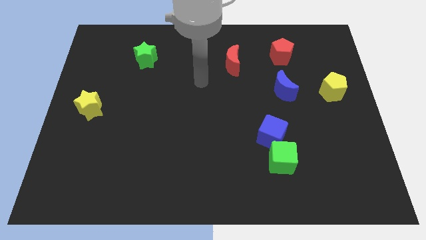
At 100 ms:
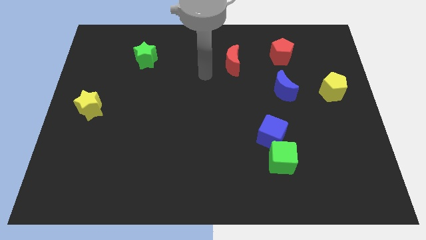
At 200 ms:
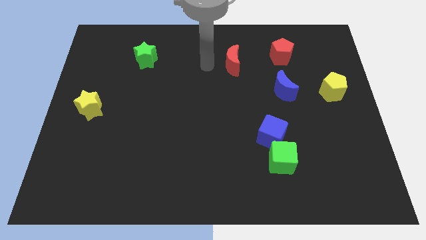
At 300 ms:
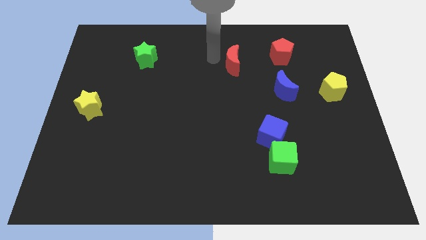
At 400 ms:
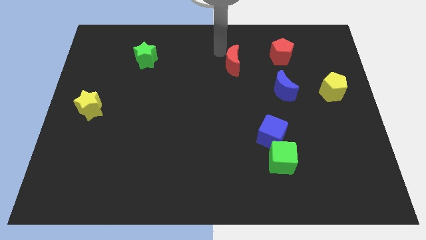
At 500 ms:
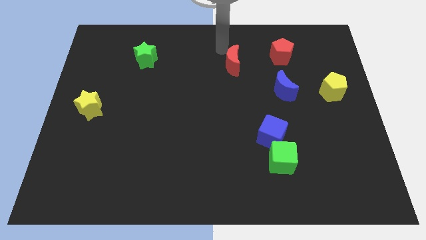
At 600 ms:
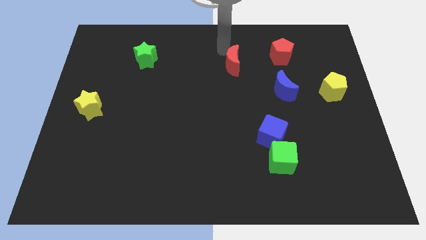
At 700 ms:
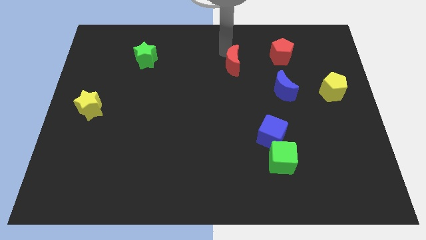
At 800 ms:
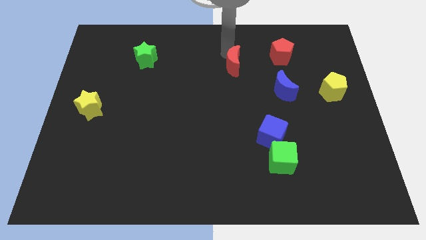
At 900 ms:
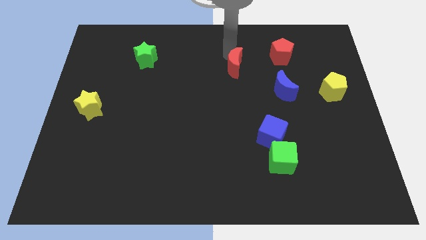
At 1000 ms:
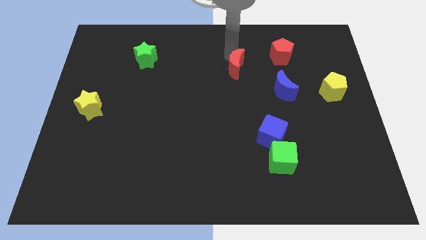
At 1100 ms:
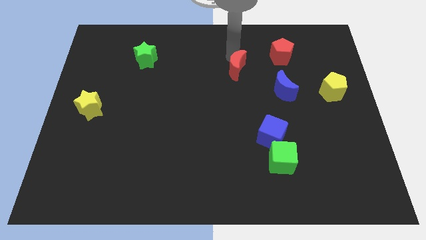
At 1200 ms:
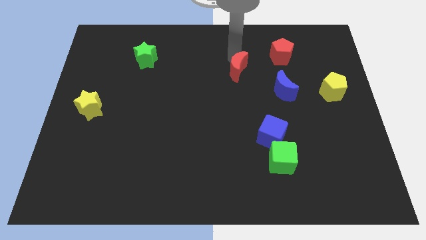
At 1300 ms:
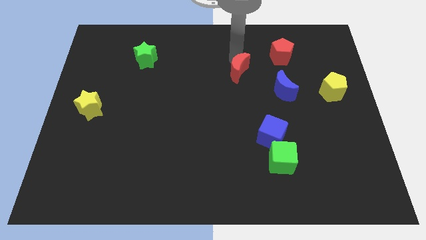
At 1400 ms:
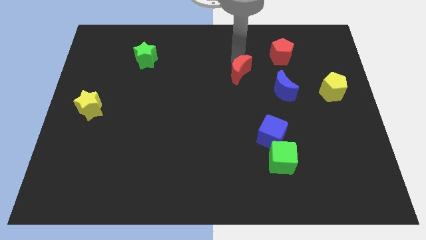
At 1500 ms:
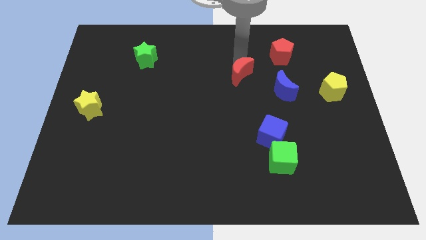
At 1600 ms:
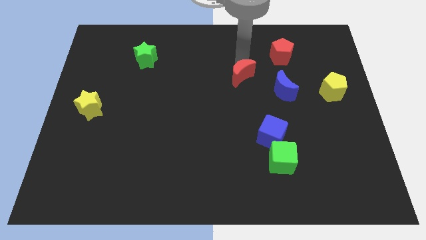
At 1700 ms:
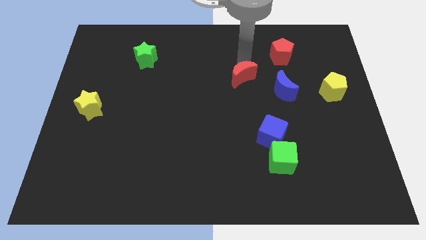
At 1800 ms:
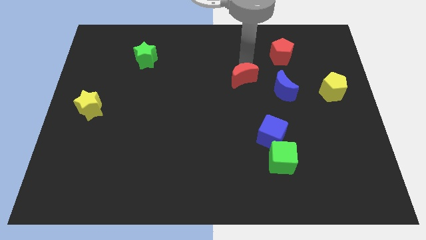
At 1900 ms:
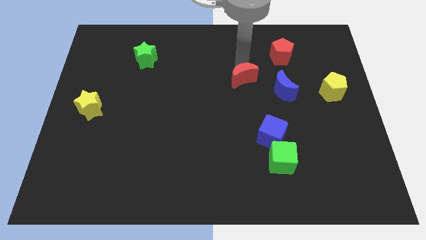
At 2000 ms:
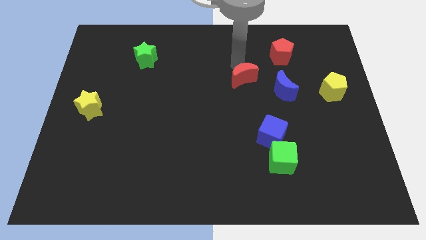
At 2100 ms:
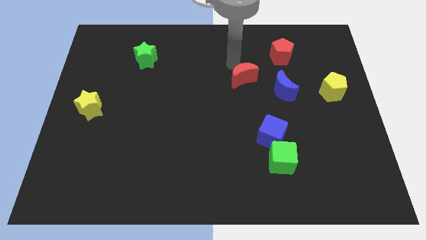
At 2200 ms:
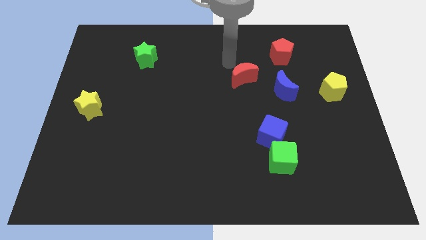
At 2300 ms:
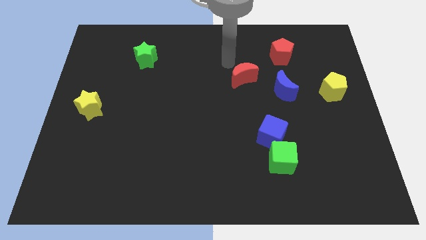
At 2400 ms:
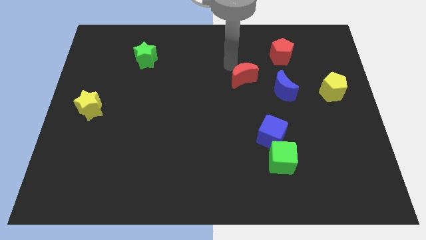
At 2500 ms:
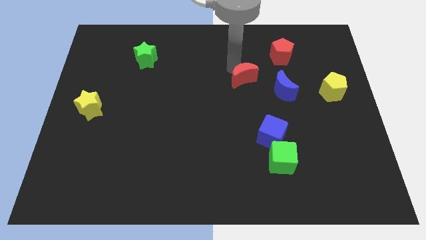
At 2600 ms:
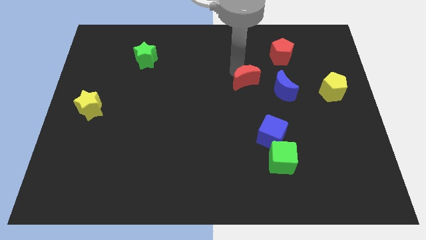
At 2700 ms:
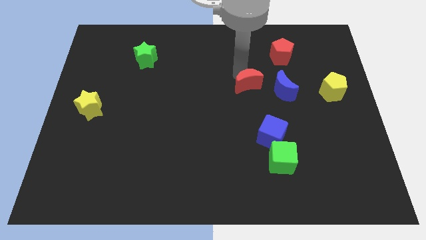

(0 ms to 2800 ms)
slightly slide the red moon diagonally downwards and to the right

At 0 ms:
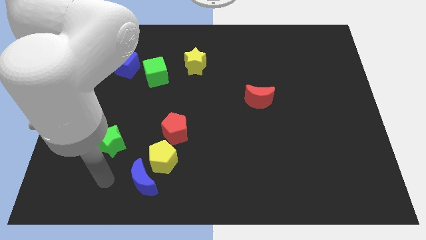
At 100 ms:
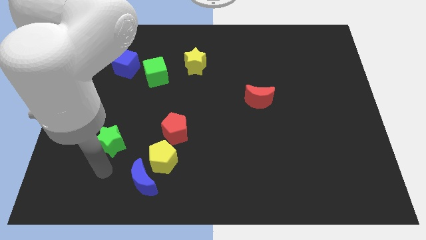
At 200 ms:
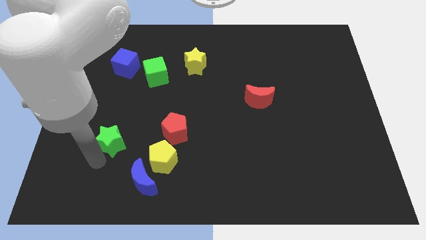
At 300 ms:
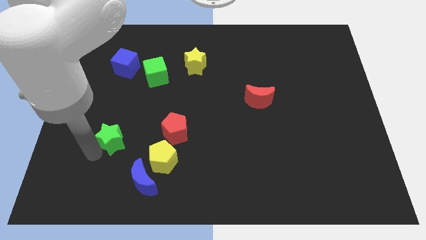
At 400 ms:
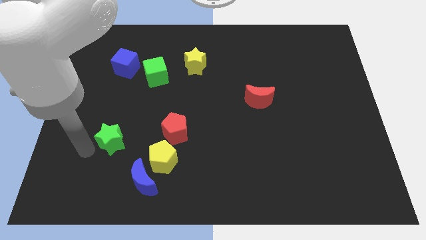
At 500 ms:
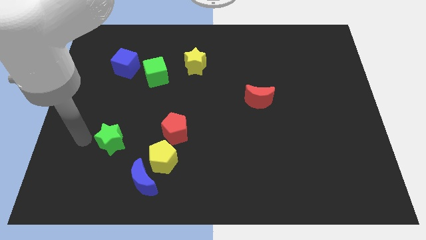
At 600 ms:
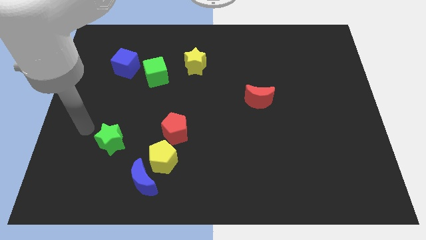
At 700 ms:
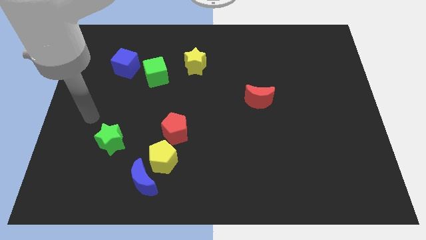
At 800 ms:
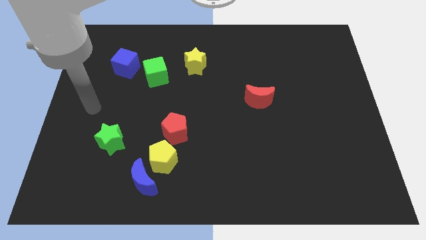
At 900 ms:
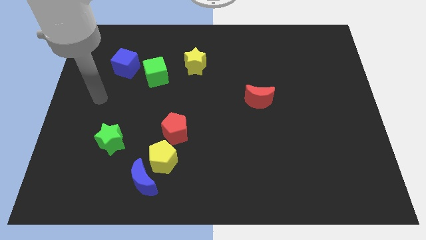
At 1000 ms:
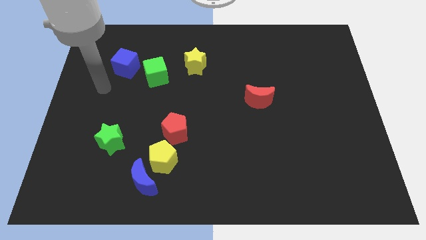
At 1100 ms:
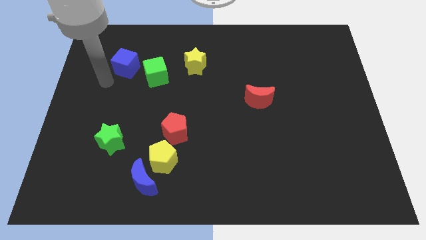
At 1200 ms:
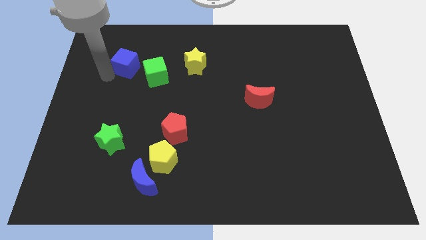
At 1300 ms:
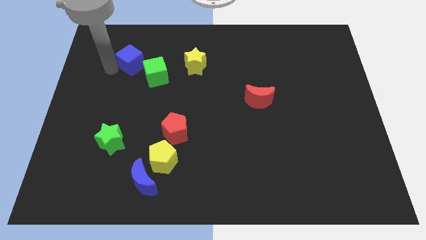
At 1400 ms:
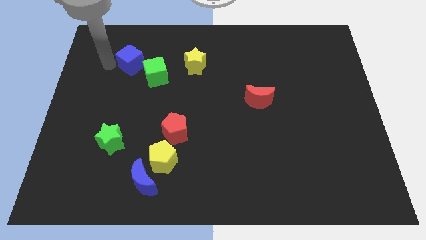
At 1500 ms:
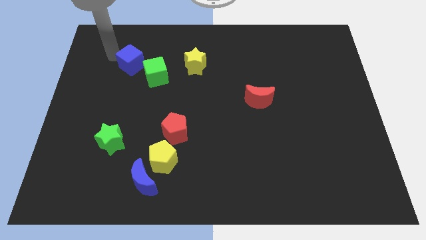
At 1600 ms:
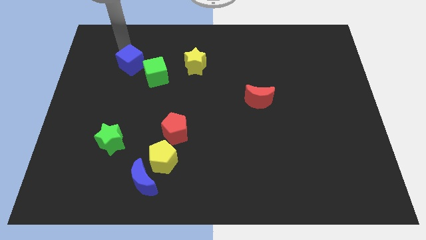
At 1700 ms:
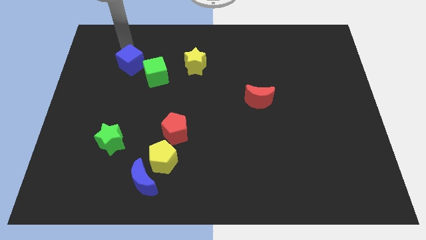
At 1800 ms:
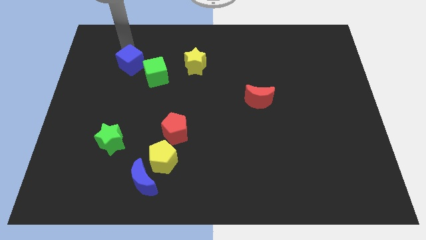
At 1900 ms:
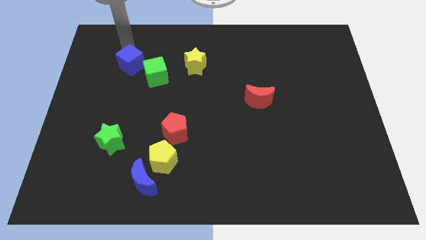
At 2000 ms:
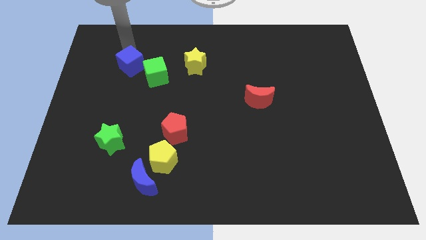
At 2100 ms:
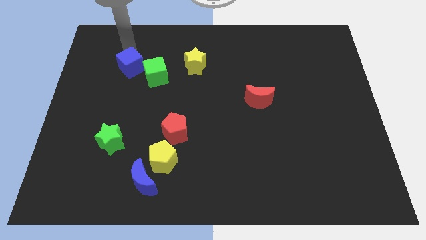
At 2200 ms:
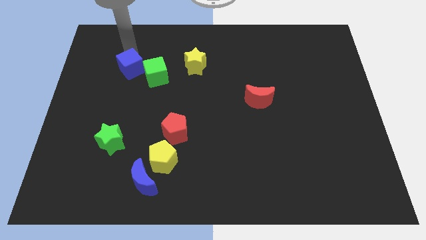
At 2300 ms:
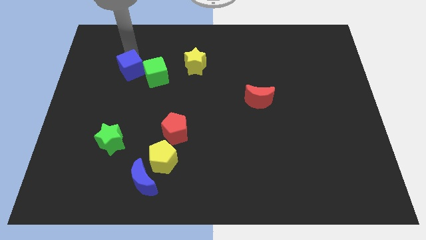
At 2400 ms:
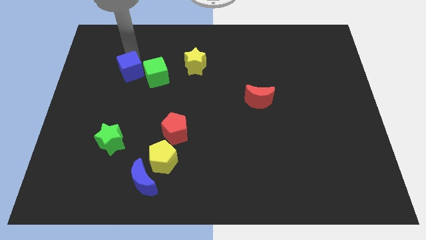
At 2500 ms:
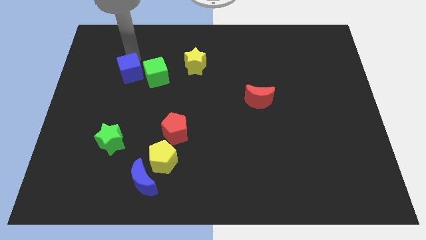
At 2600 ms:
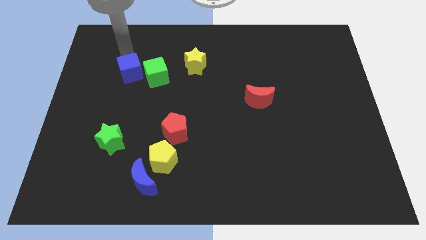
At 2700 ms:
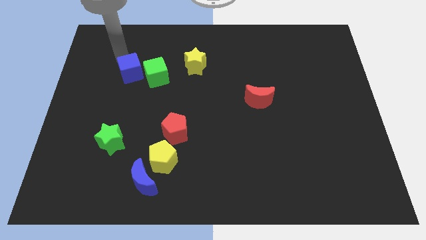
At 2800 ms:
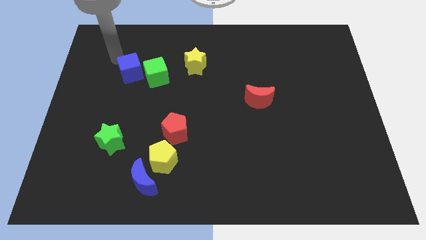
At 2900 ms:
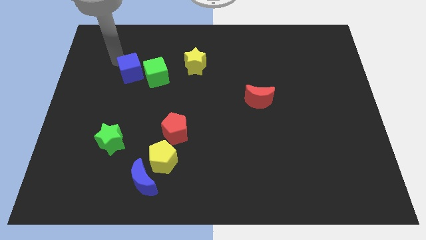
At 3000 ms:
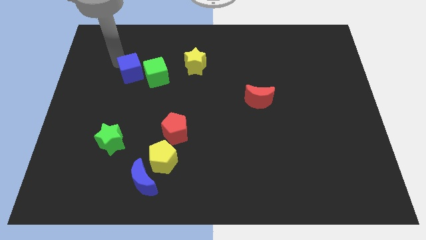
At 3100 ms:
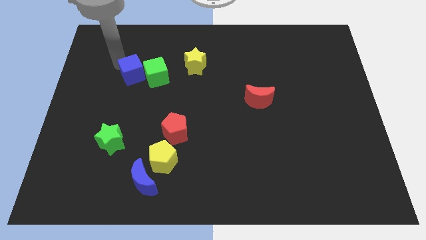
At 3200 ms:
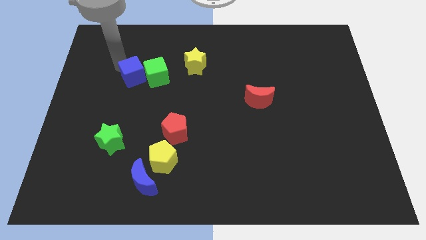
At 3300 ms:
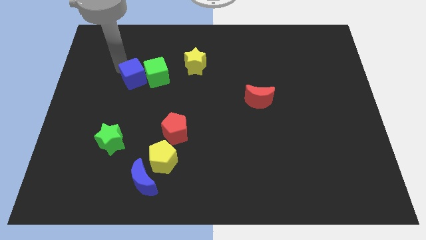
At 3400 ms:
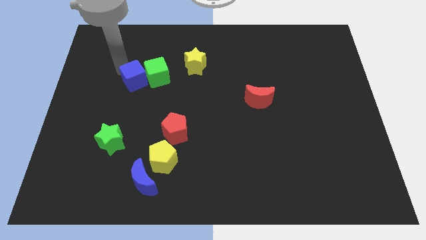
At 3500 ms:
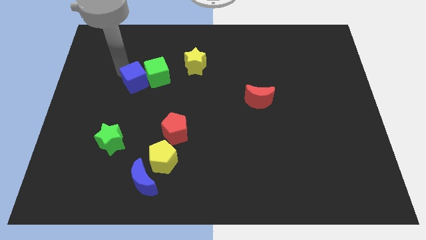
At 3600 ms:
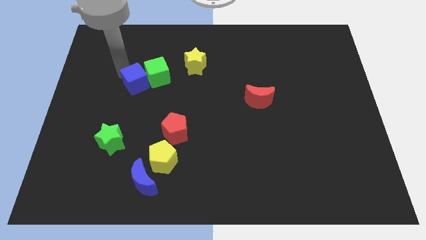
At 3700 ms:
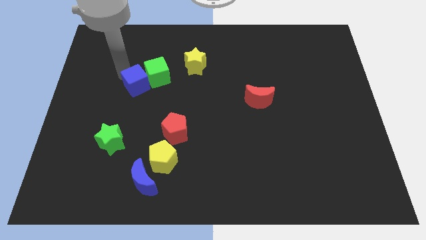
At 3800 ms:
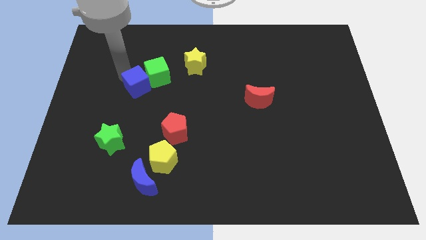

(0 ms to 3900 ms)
push the blue cube down and to the right diagonally slightly

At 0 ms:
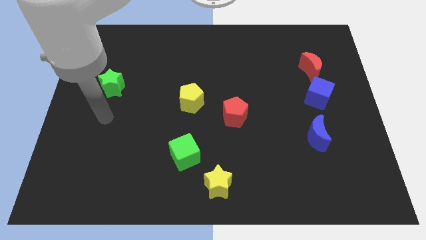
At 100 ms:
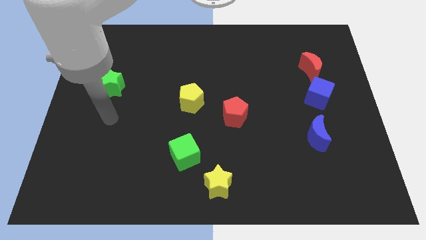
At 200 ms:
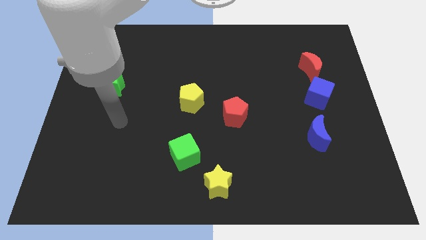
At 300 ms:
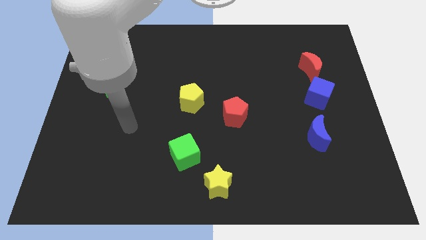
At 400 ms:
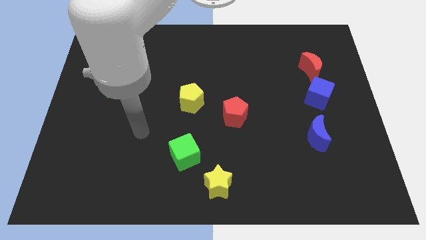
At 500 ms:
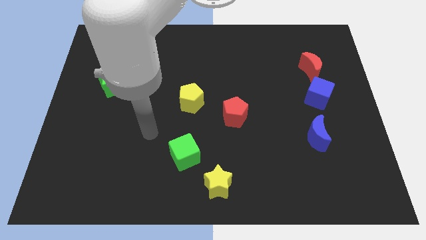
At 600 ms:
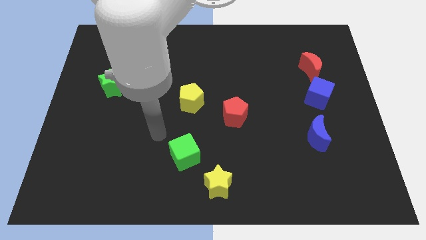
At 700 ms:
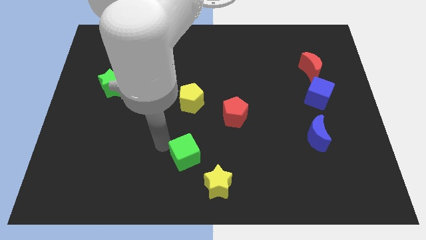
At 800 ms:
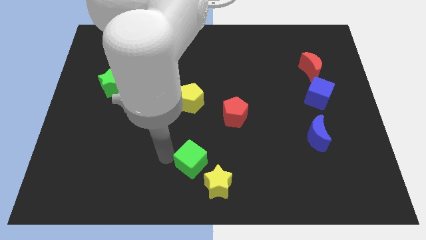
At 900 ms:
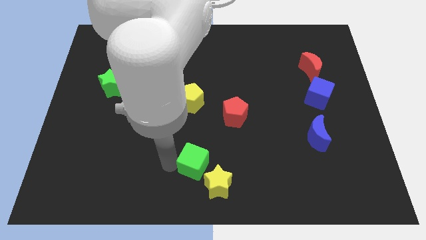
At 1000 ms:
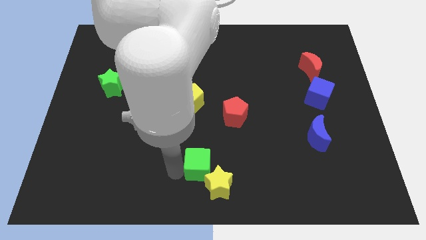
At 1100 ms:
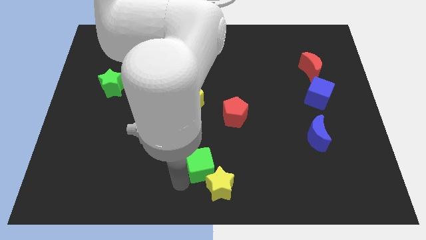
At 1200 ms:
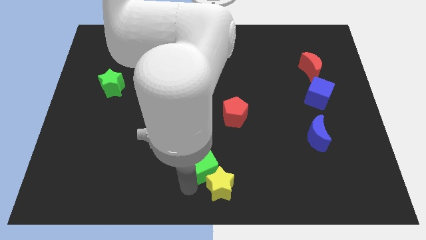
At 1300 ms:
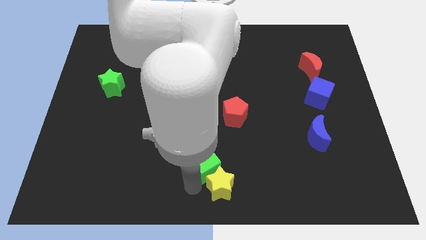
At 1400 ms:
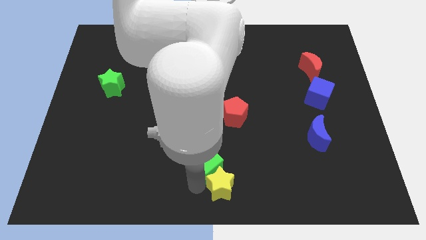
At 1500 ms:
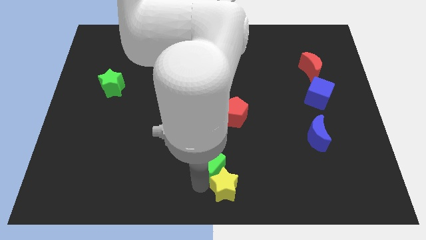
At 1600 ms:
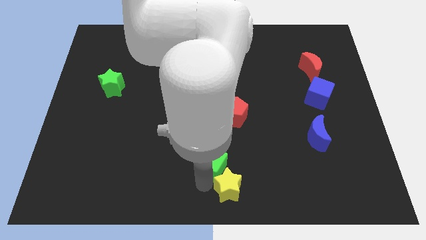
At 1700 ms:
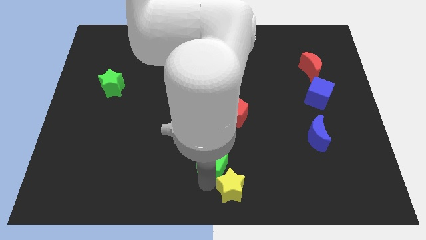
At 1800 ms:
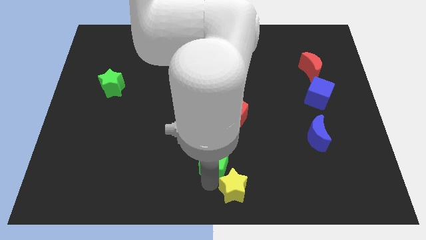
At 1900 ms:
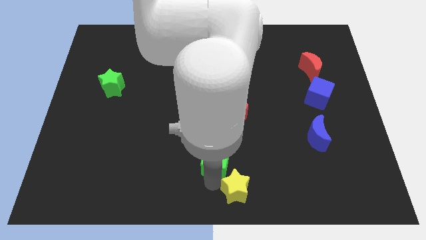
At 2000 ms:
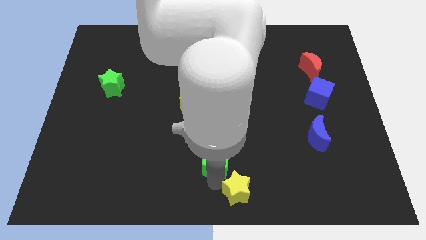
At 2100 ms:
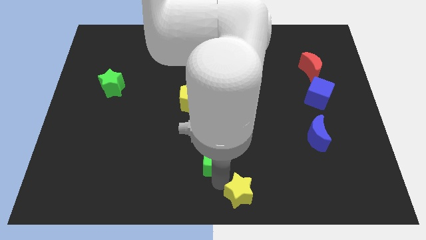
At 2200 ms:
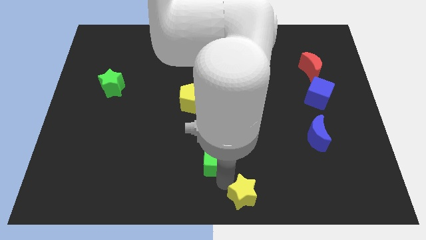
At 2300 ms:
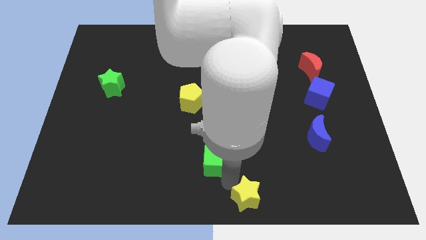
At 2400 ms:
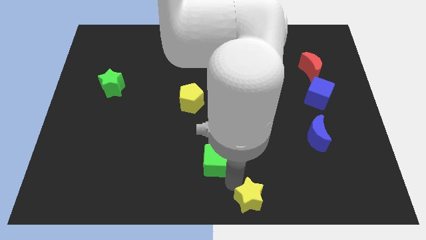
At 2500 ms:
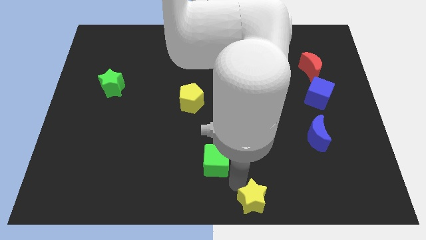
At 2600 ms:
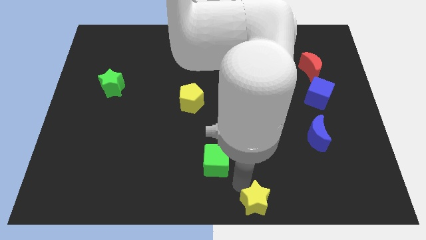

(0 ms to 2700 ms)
move the yellow star right a bit
